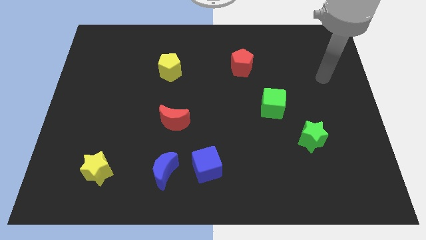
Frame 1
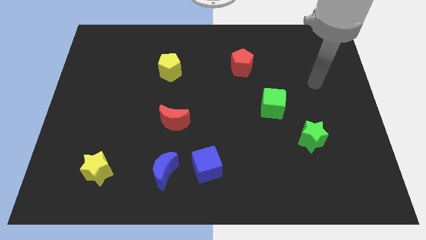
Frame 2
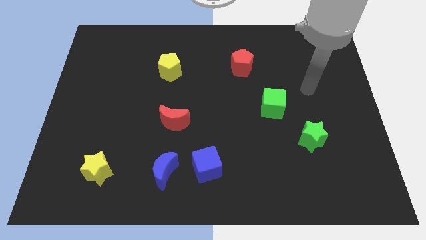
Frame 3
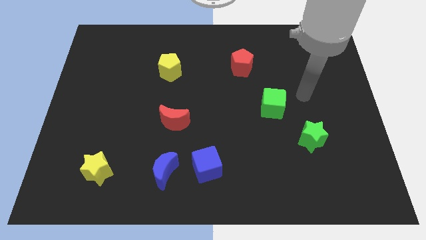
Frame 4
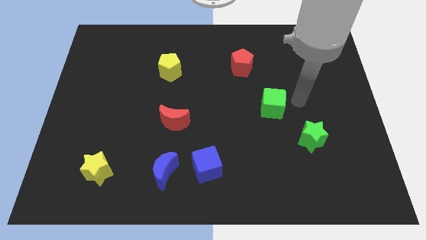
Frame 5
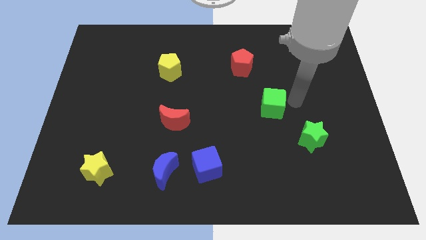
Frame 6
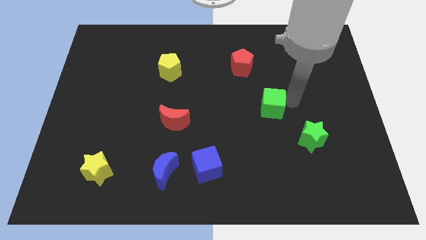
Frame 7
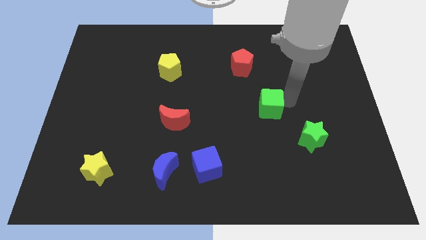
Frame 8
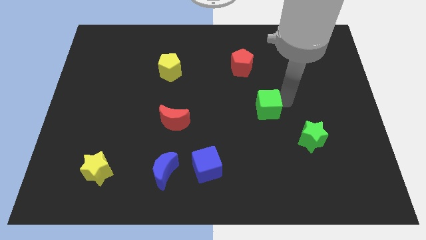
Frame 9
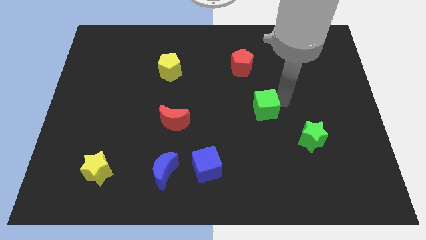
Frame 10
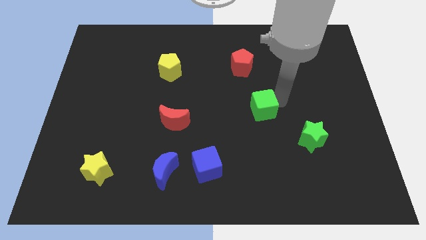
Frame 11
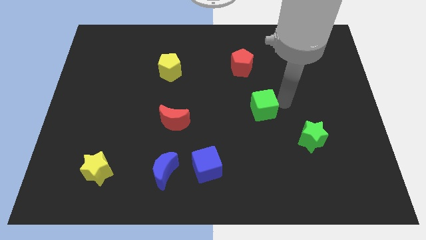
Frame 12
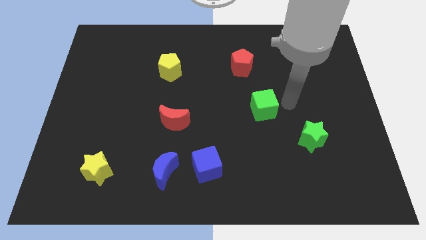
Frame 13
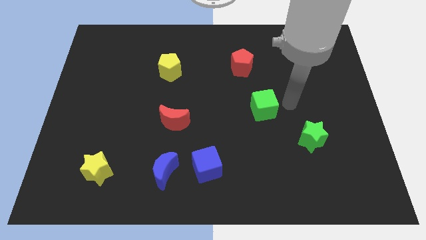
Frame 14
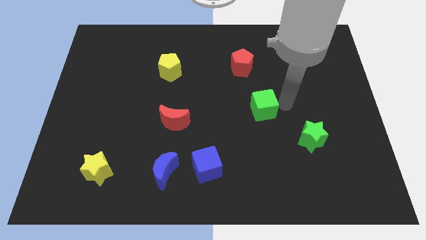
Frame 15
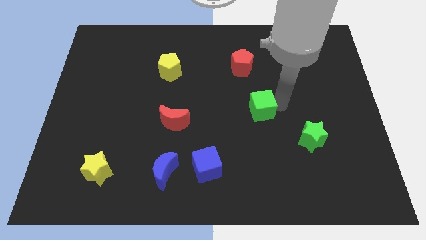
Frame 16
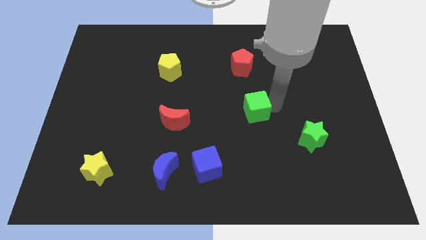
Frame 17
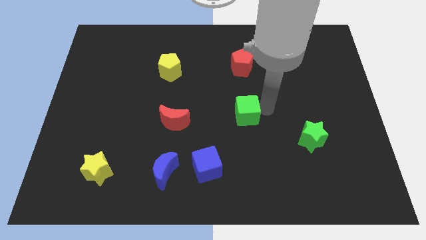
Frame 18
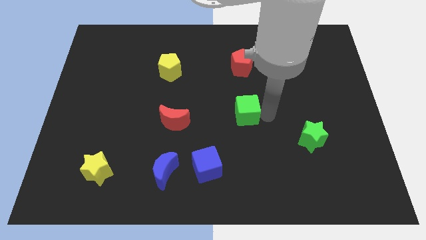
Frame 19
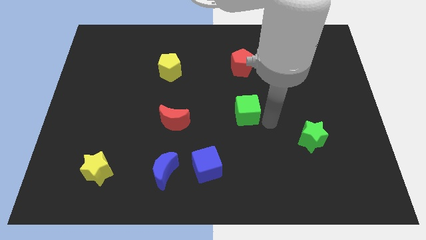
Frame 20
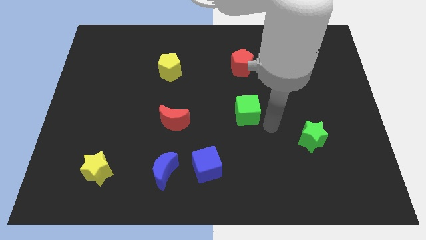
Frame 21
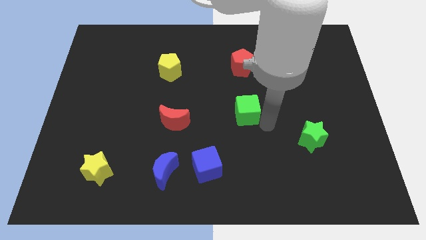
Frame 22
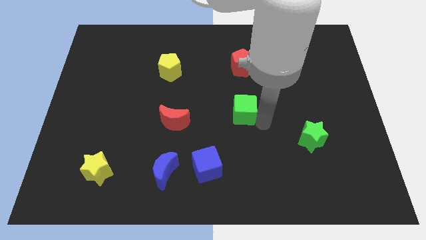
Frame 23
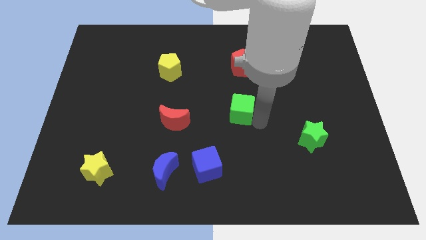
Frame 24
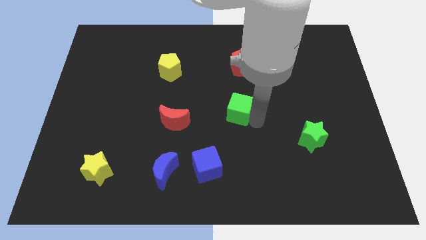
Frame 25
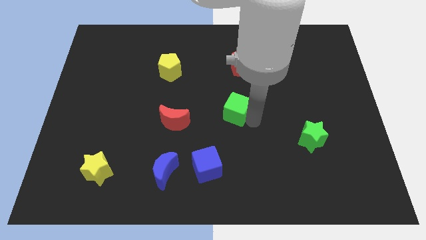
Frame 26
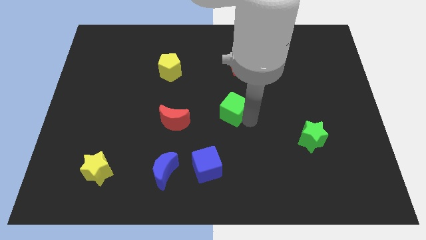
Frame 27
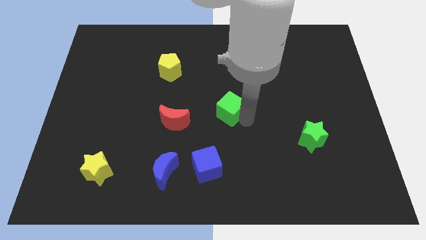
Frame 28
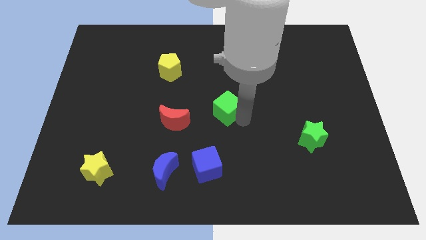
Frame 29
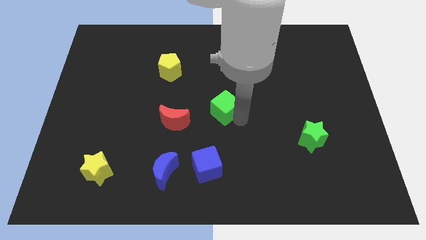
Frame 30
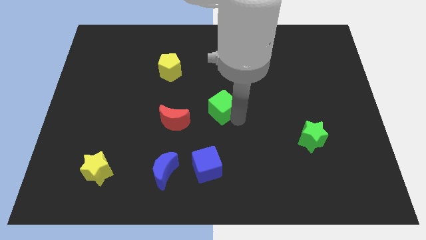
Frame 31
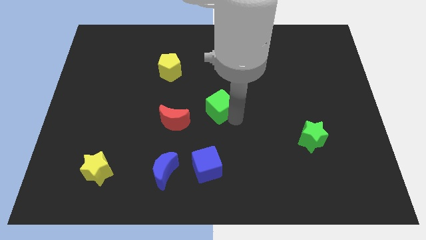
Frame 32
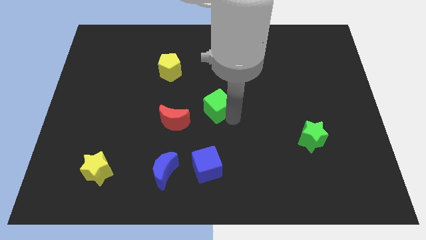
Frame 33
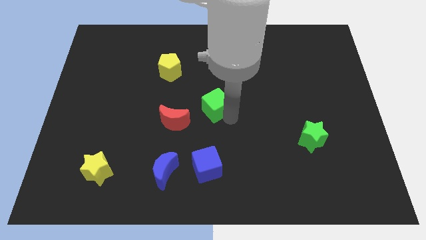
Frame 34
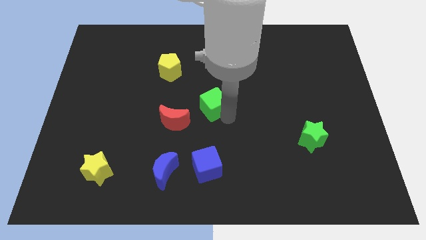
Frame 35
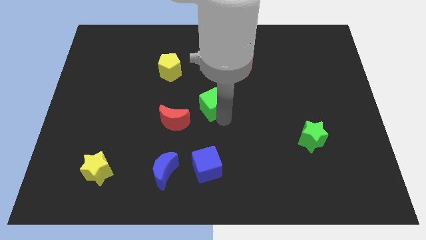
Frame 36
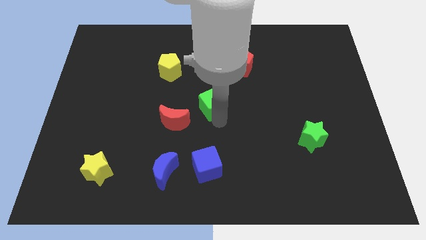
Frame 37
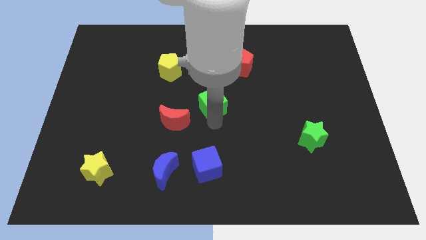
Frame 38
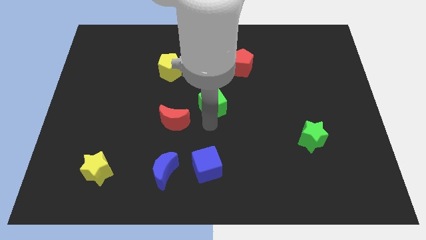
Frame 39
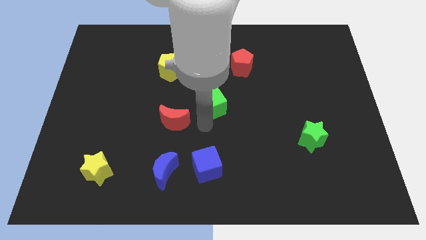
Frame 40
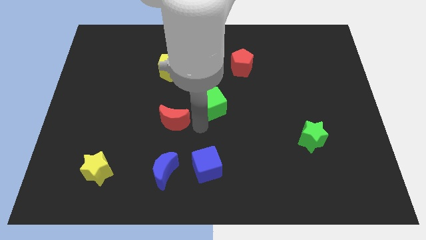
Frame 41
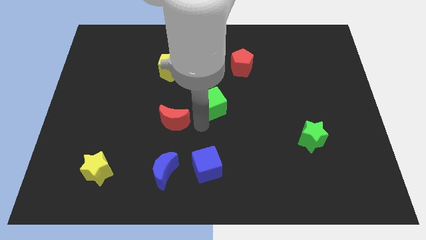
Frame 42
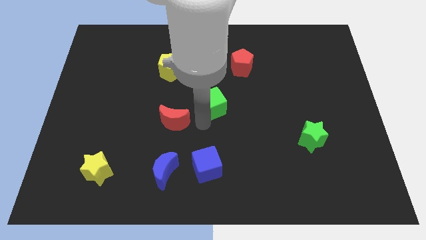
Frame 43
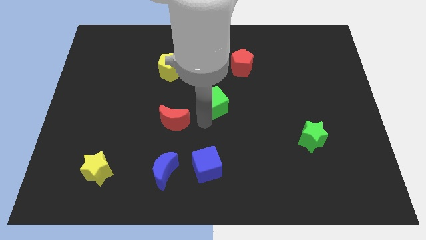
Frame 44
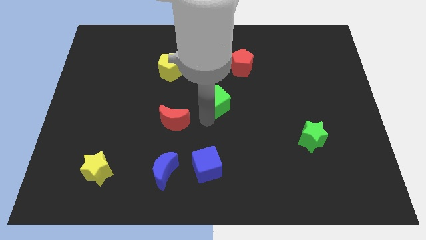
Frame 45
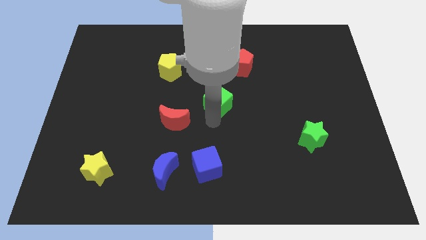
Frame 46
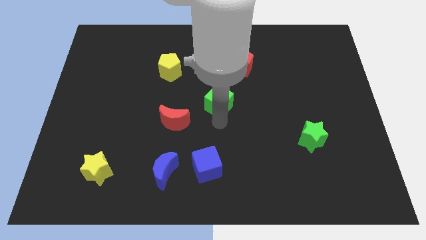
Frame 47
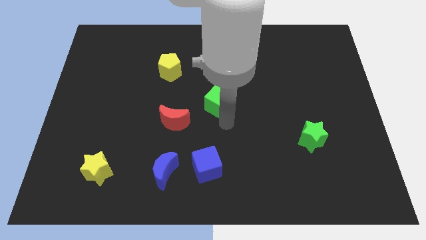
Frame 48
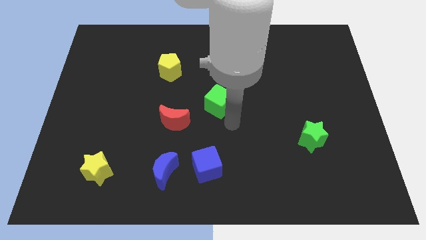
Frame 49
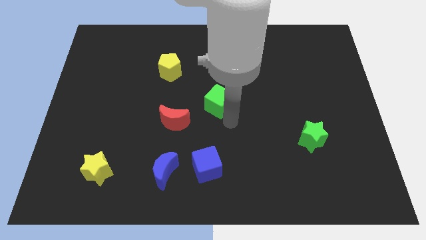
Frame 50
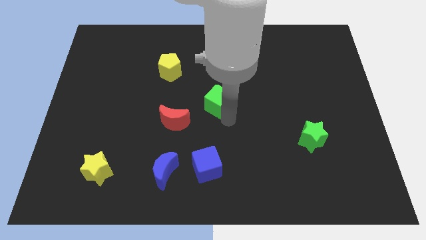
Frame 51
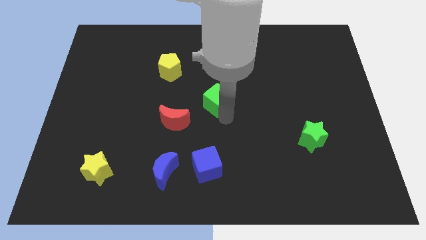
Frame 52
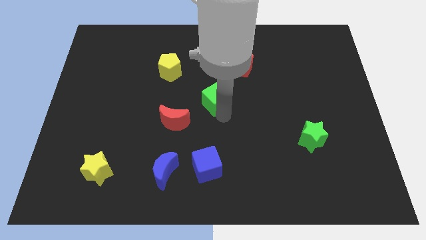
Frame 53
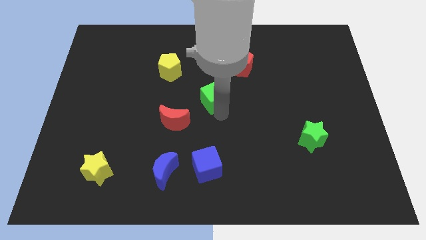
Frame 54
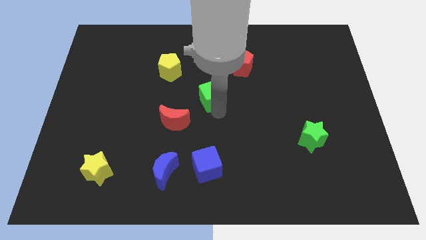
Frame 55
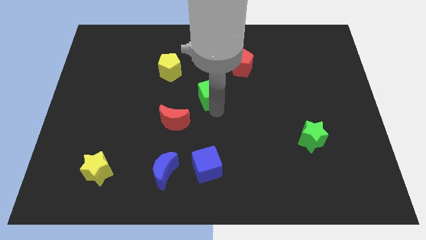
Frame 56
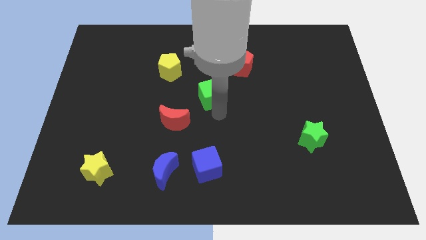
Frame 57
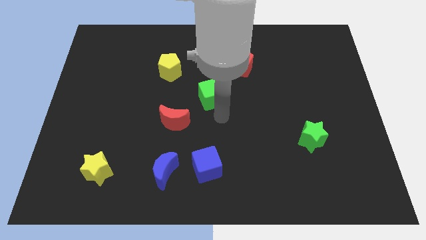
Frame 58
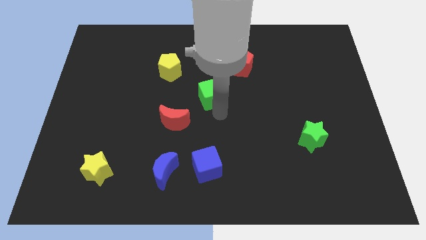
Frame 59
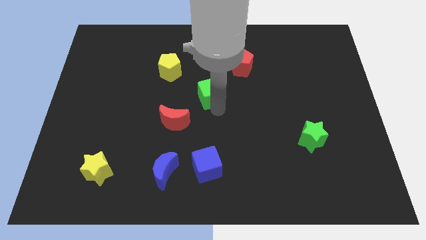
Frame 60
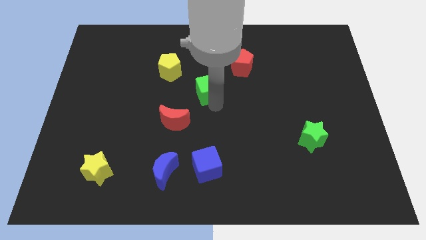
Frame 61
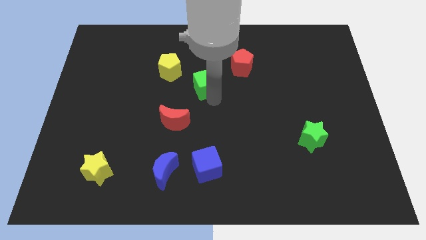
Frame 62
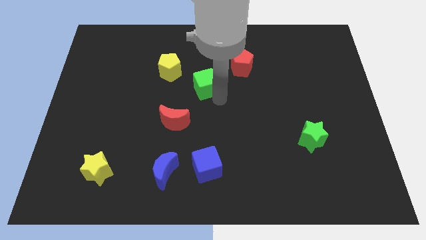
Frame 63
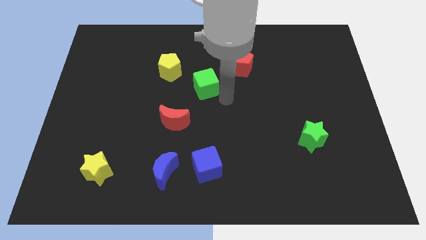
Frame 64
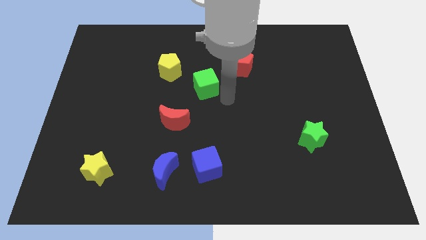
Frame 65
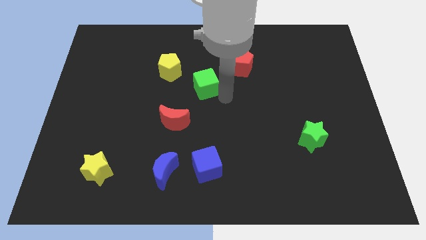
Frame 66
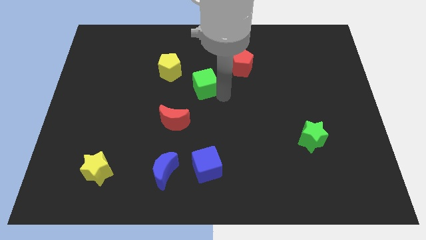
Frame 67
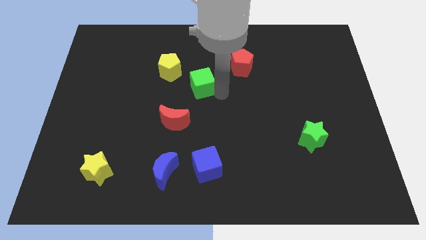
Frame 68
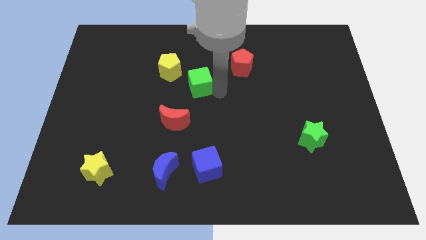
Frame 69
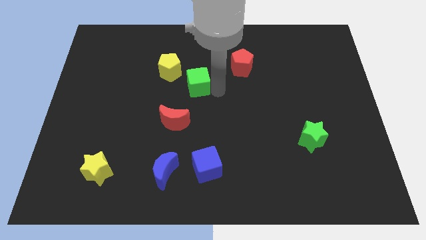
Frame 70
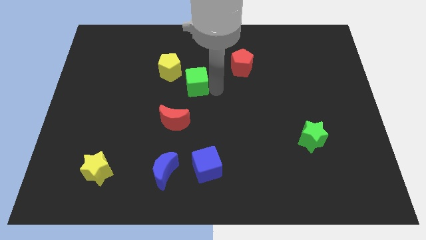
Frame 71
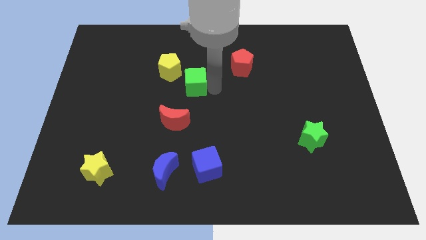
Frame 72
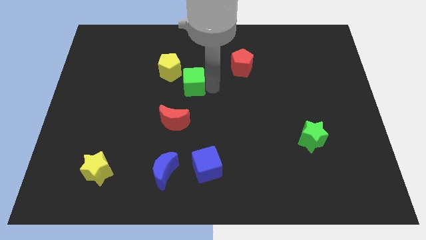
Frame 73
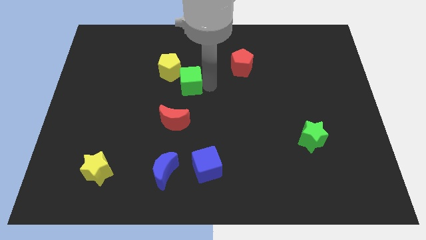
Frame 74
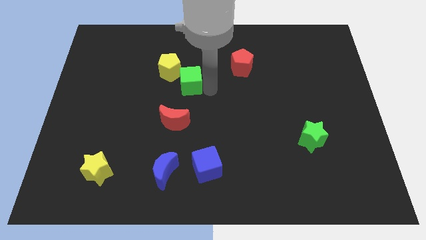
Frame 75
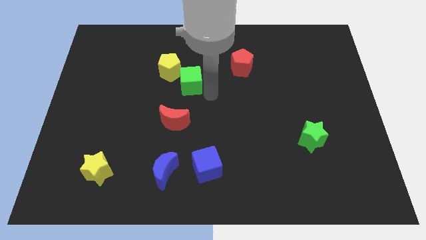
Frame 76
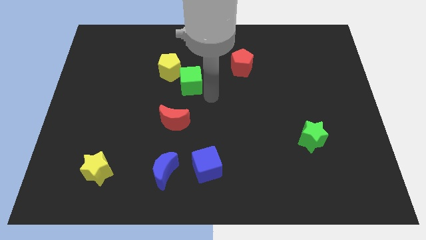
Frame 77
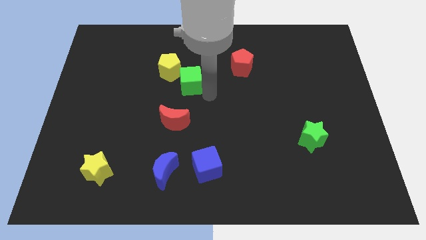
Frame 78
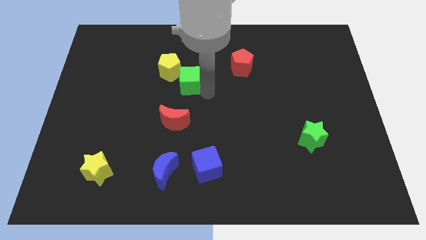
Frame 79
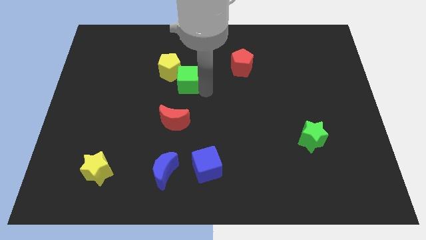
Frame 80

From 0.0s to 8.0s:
move the green cube to the yellow pentagon
